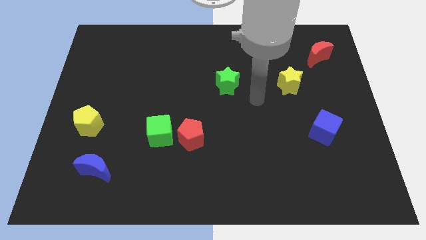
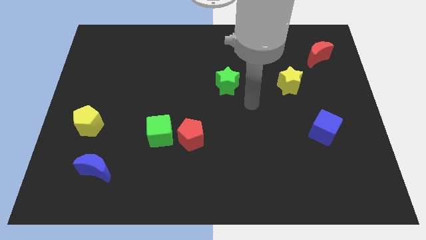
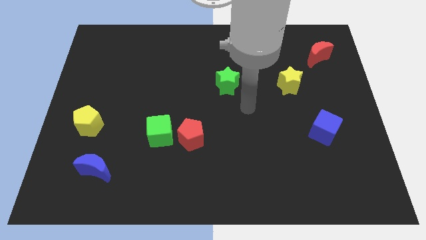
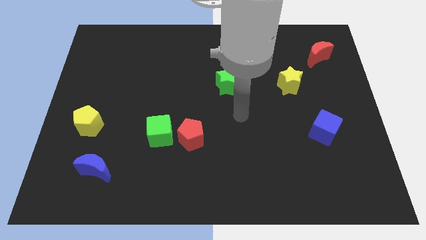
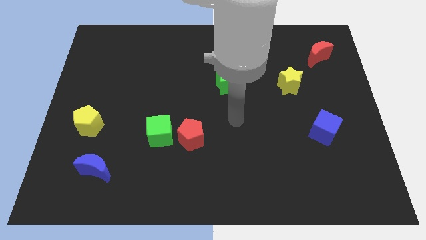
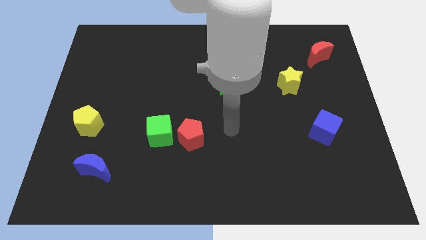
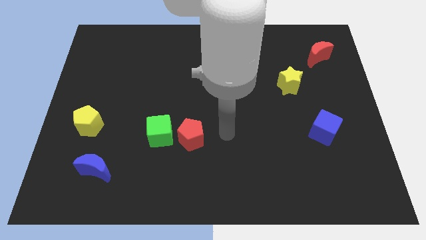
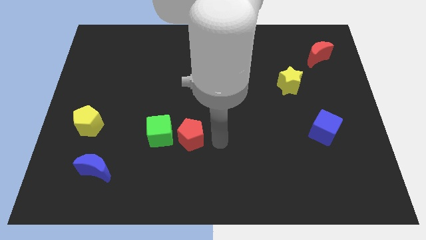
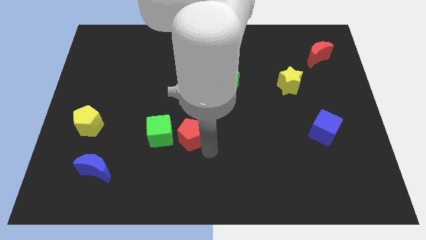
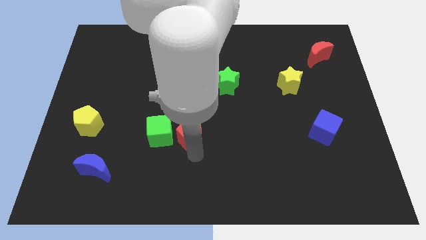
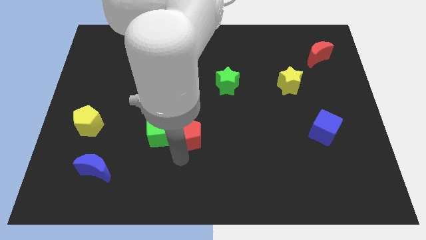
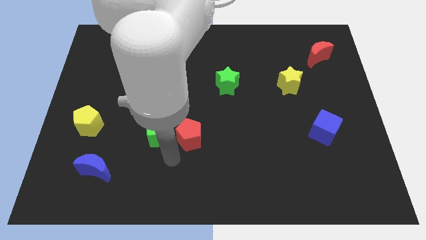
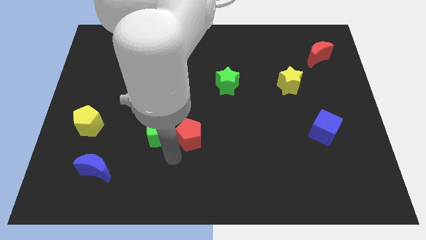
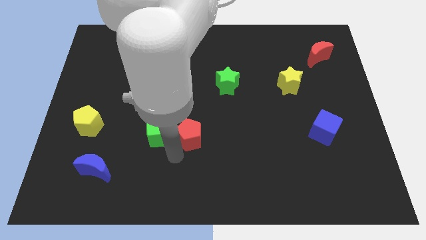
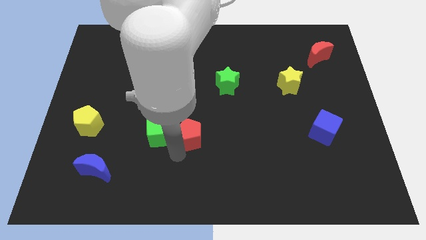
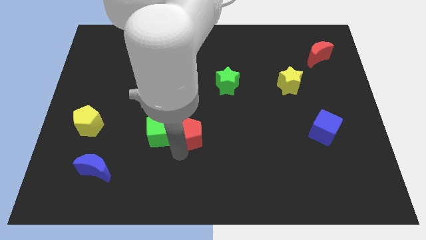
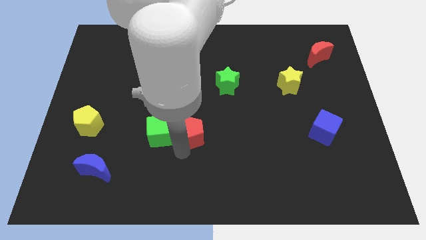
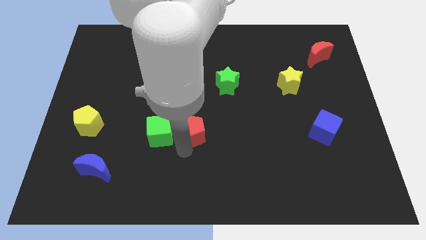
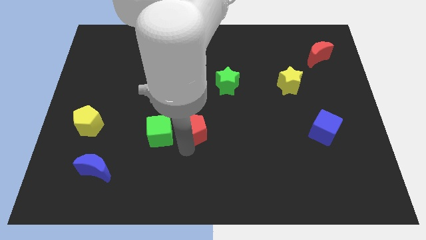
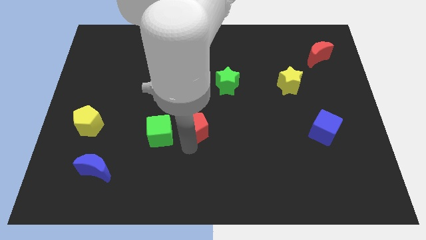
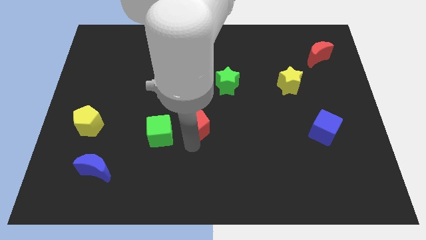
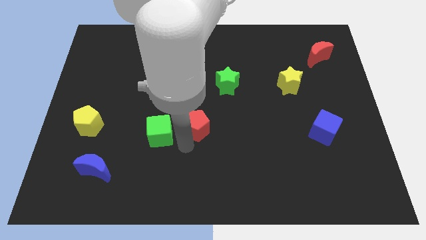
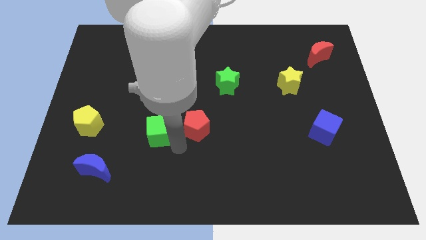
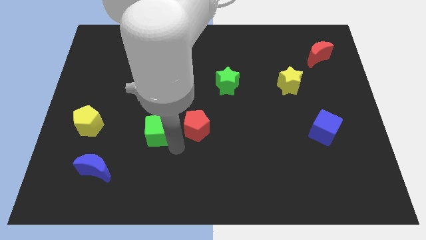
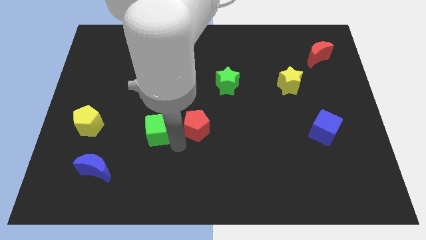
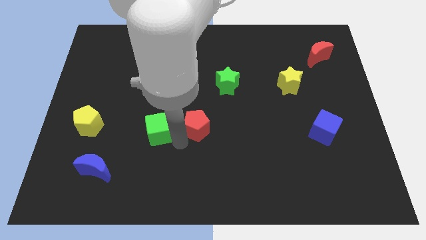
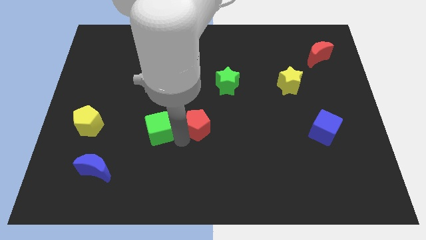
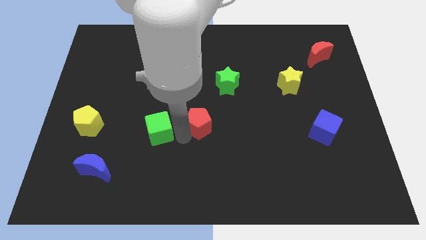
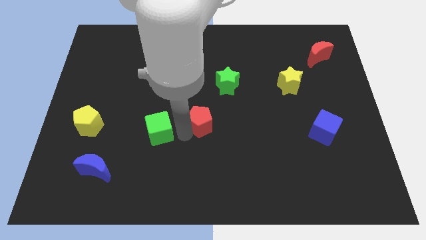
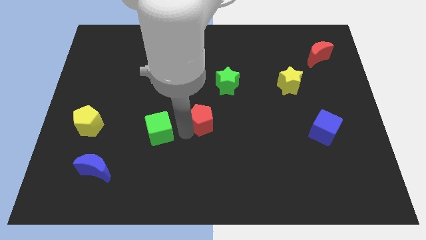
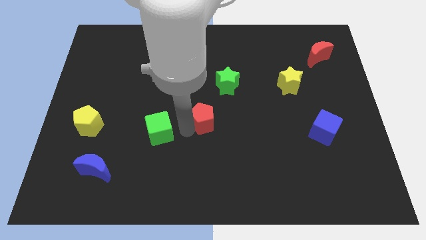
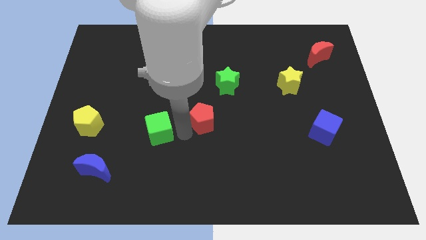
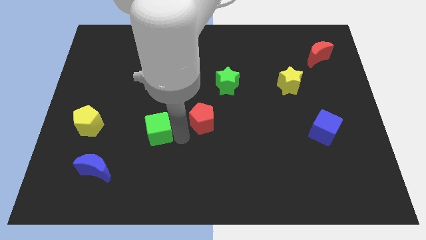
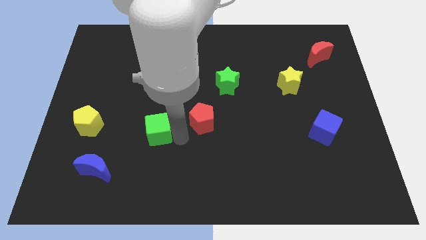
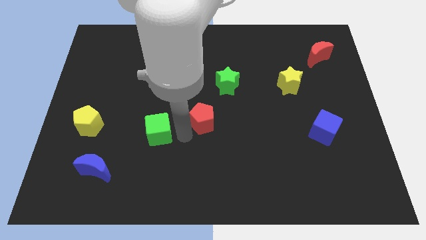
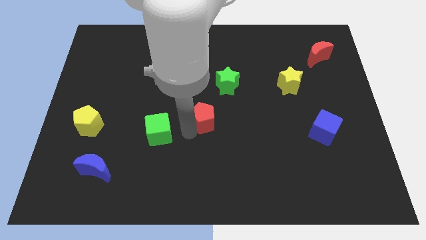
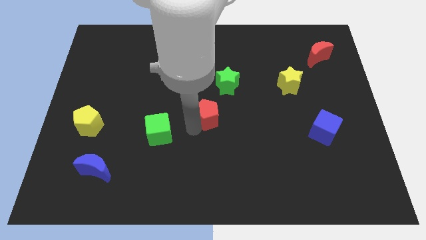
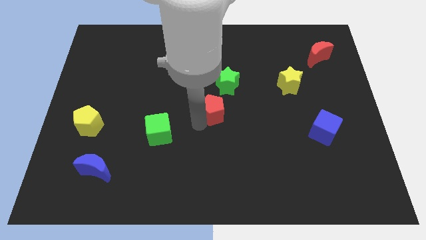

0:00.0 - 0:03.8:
slide the red pentagon a bit upwards and to the right

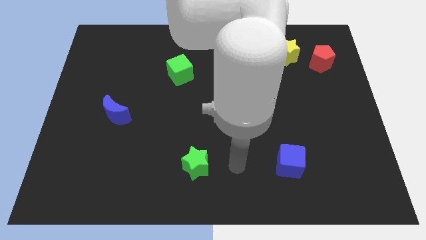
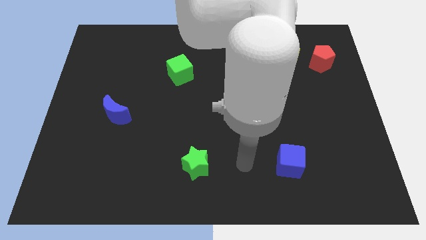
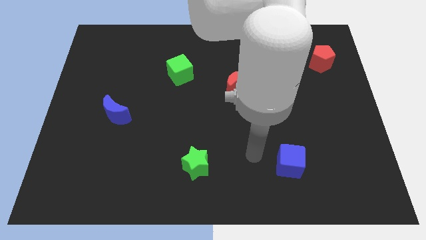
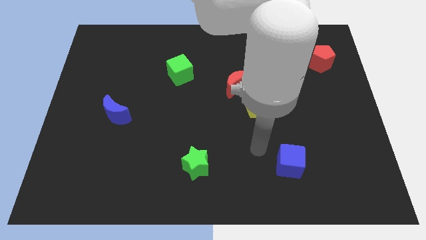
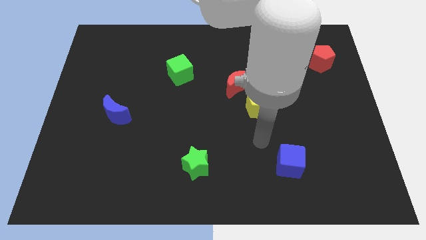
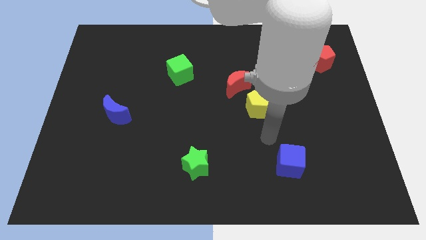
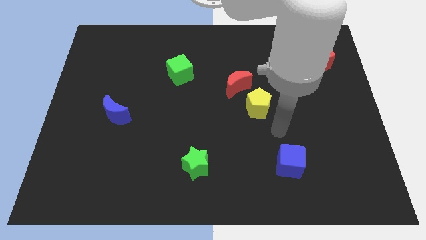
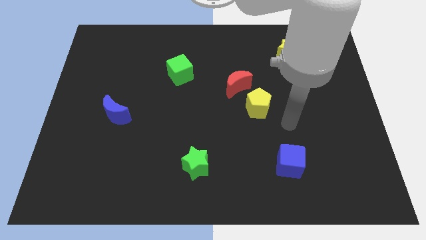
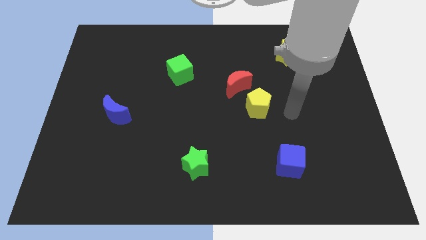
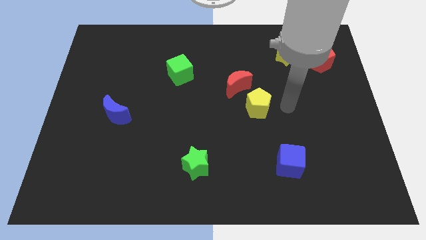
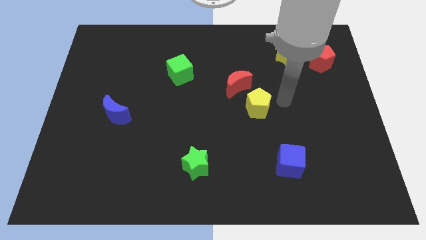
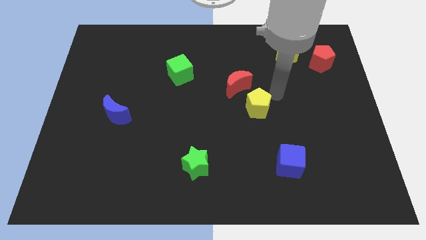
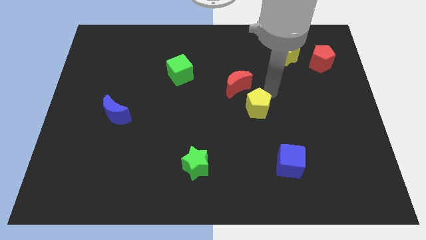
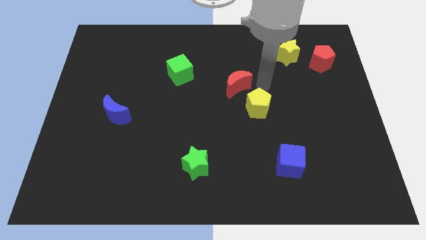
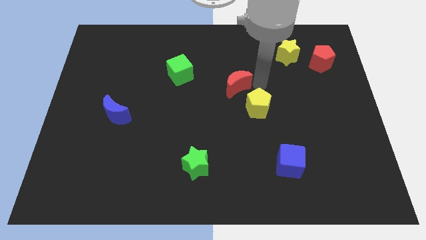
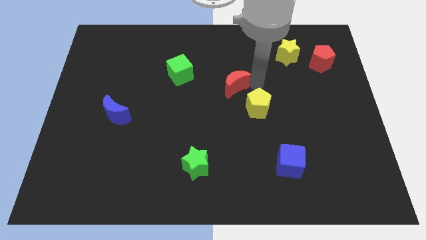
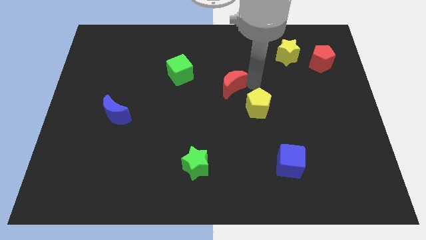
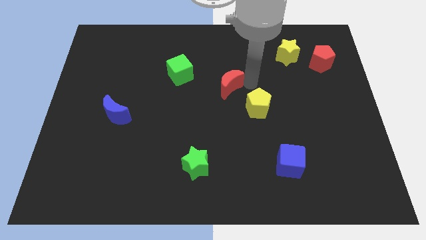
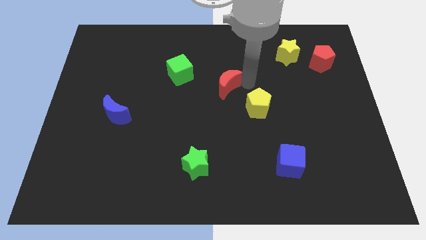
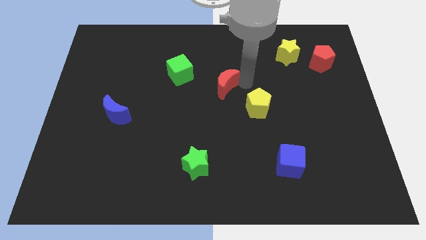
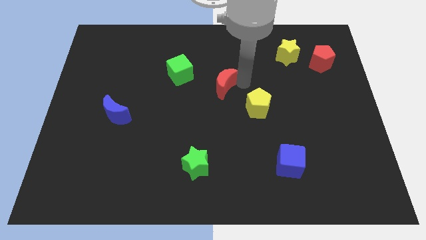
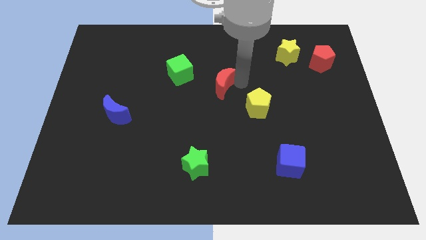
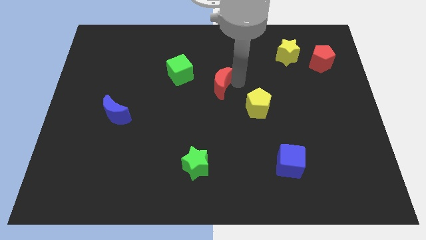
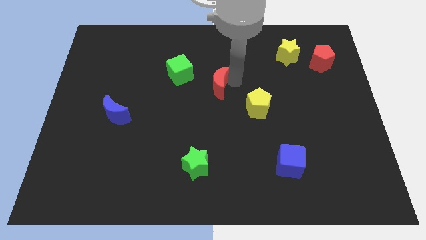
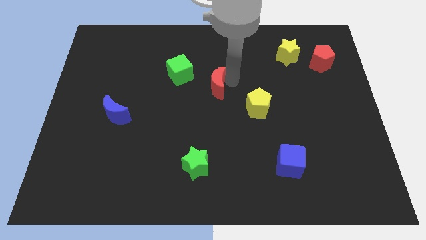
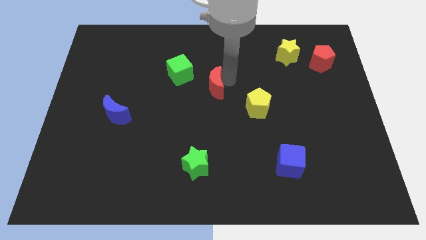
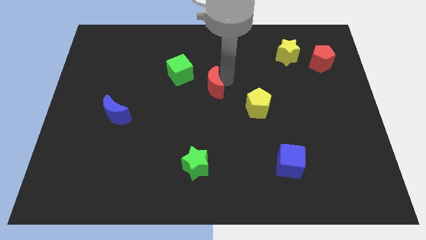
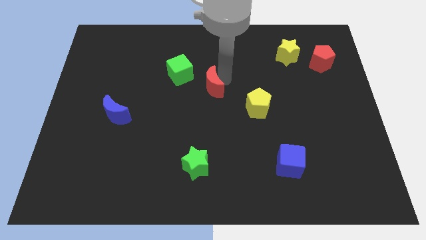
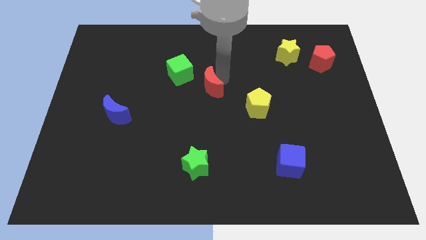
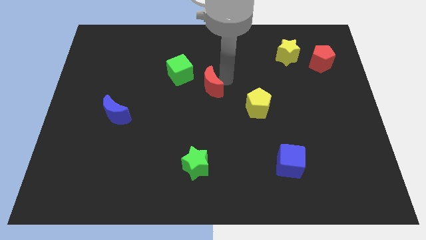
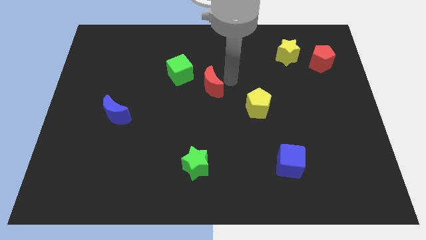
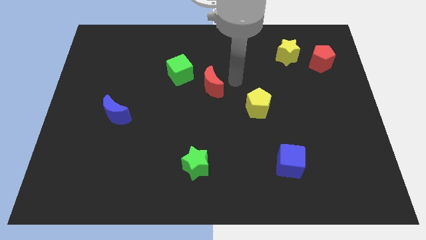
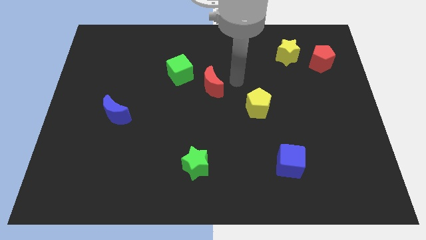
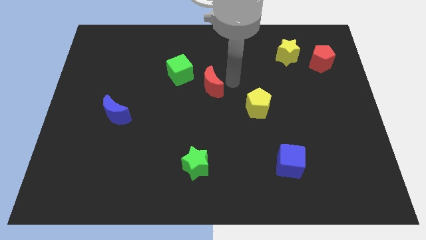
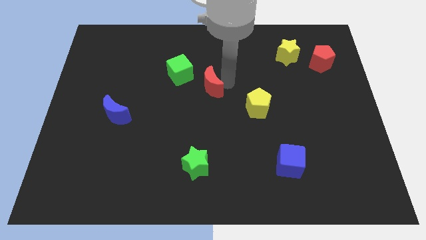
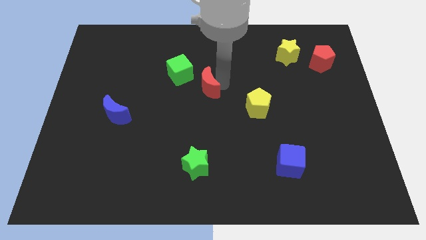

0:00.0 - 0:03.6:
slightly move the red moon to the left

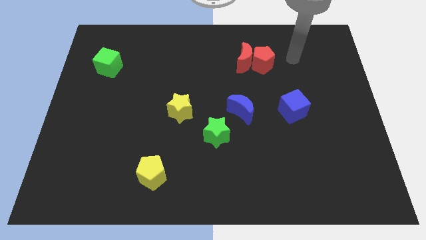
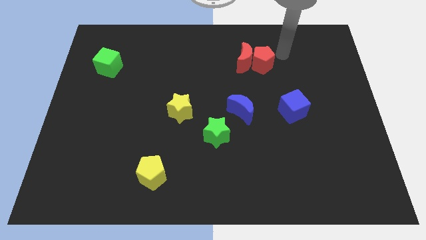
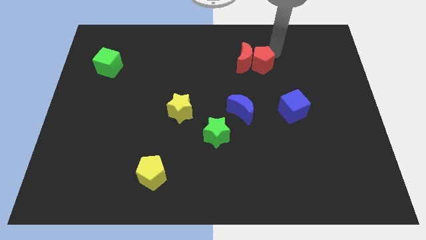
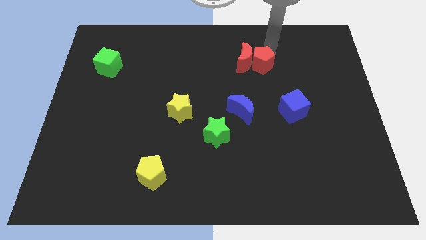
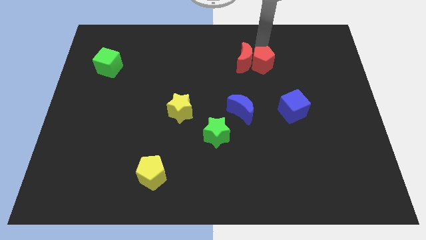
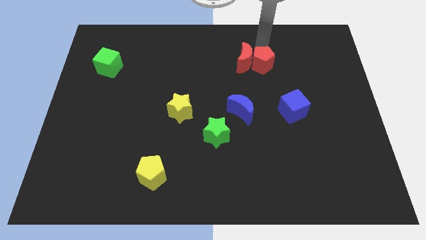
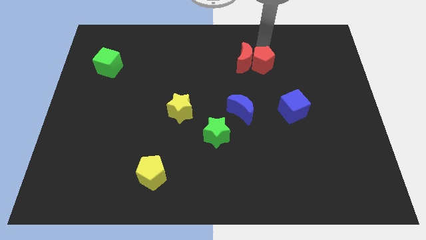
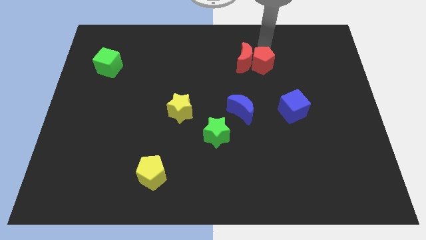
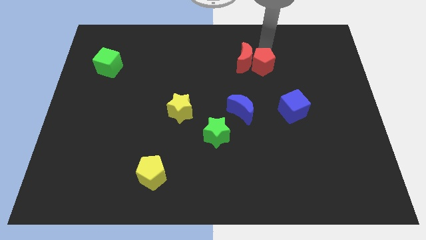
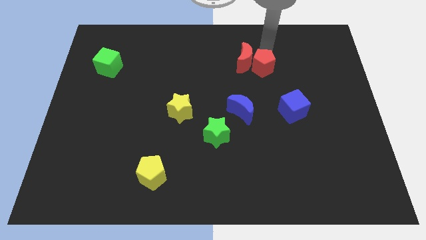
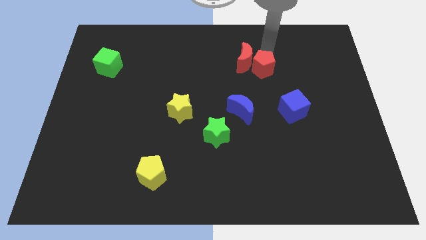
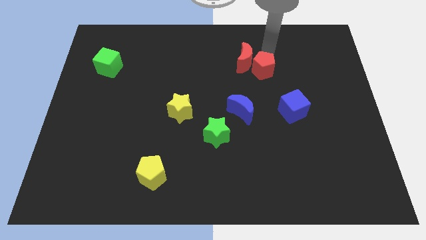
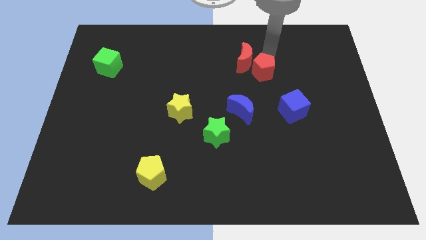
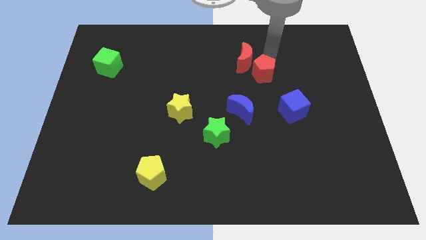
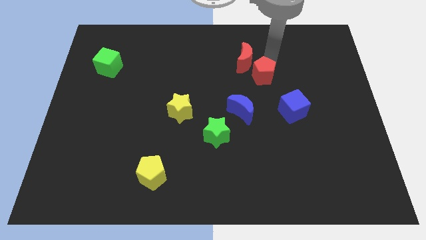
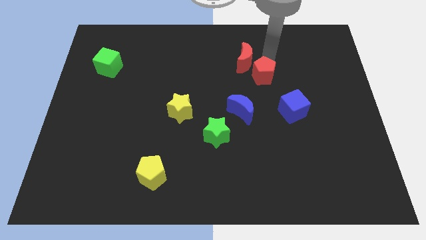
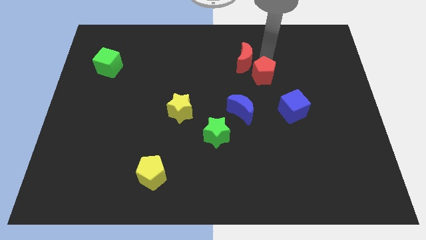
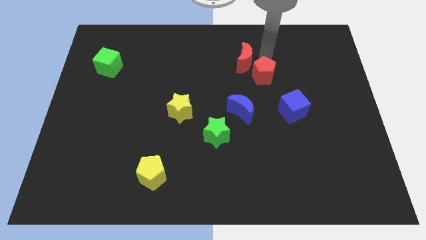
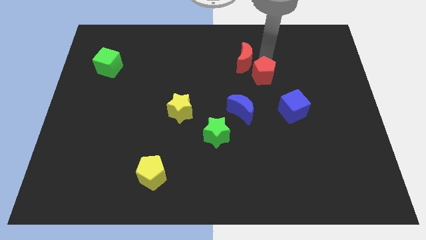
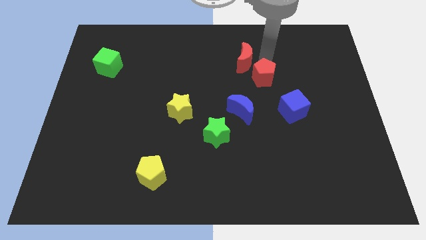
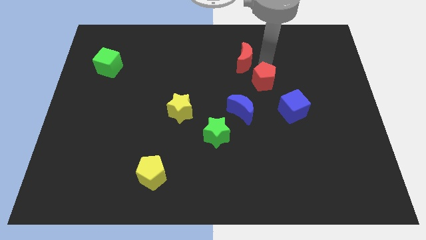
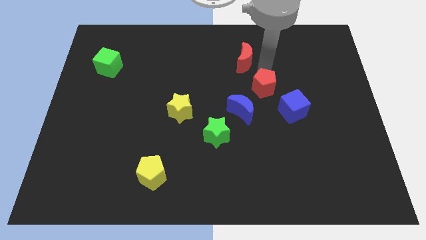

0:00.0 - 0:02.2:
slightly move the red pentagon downwards
